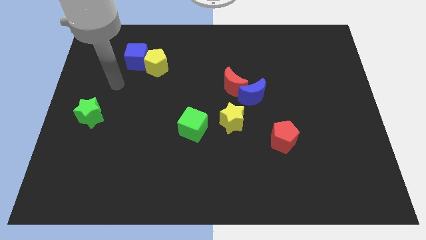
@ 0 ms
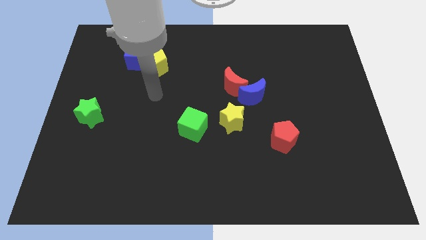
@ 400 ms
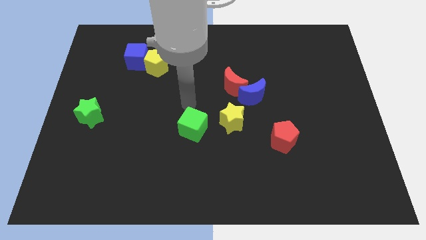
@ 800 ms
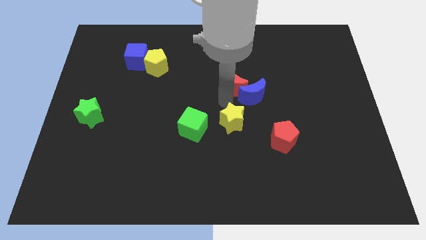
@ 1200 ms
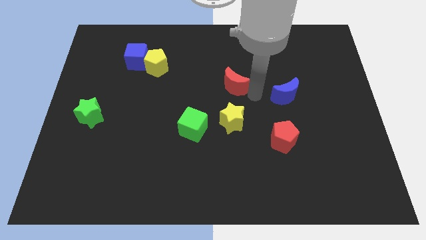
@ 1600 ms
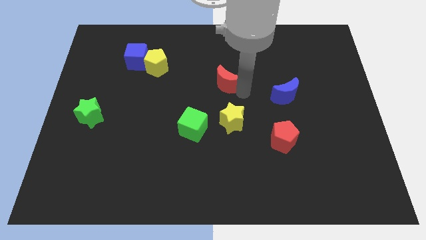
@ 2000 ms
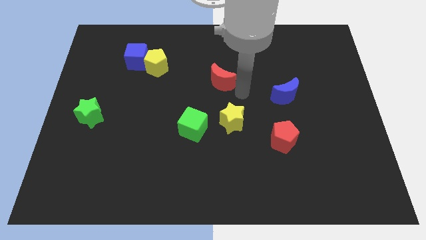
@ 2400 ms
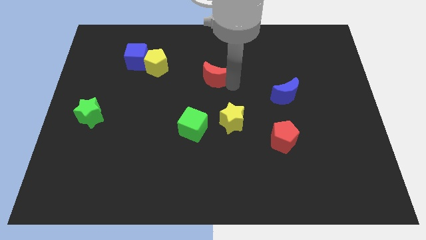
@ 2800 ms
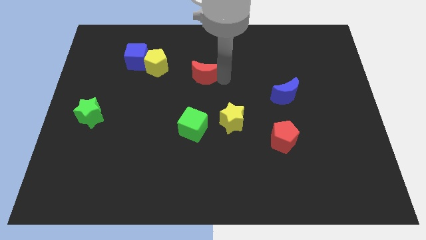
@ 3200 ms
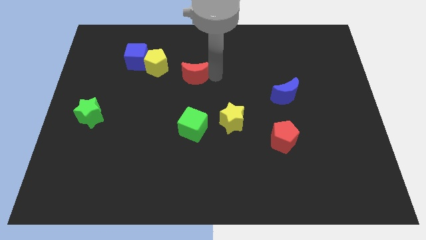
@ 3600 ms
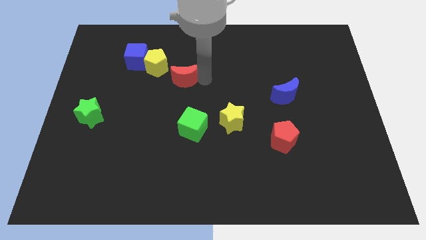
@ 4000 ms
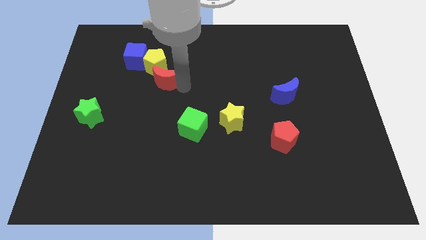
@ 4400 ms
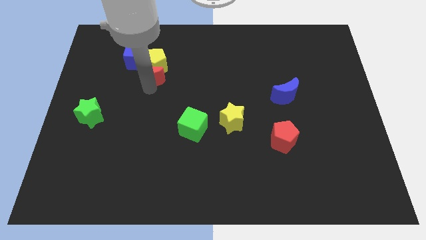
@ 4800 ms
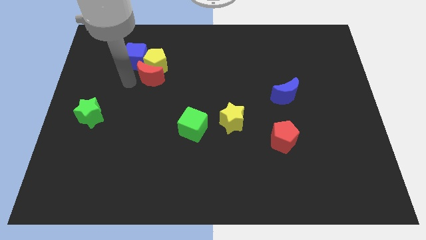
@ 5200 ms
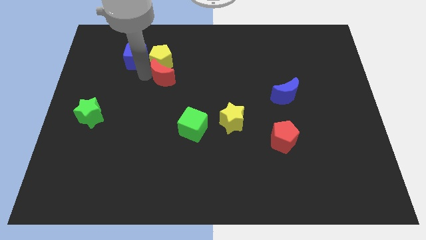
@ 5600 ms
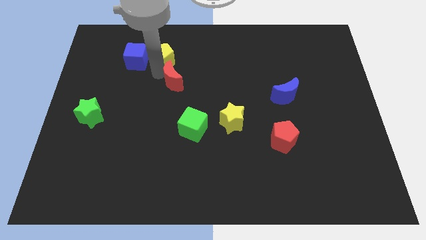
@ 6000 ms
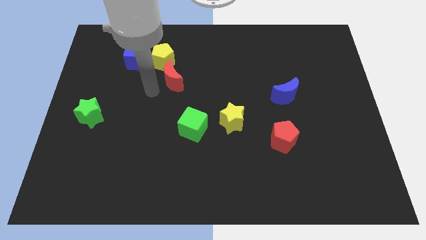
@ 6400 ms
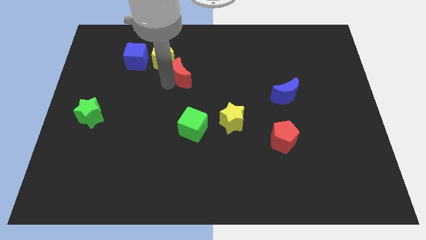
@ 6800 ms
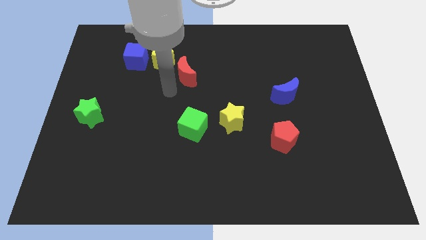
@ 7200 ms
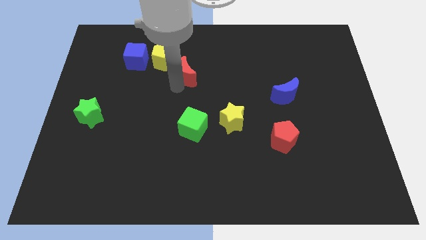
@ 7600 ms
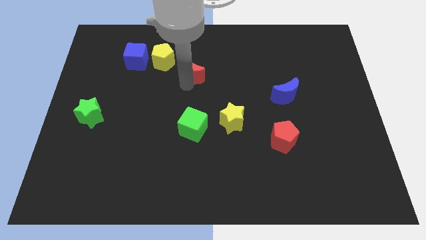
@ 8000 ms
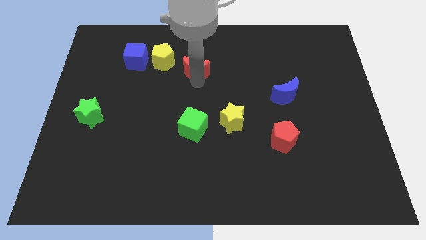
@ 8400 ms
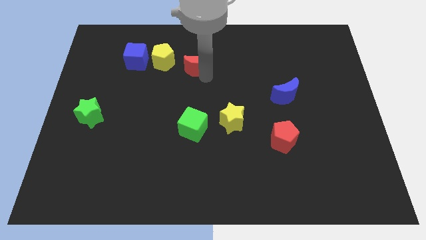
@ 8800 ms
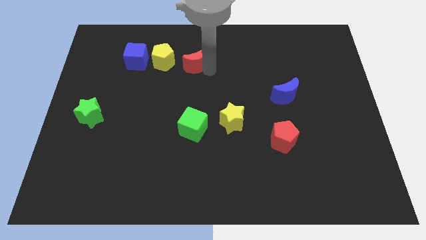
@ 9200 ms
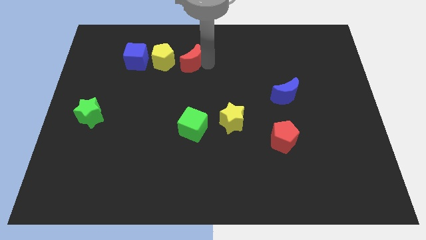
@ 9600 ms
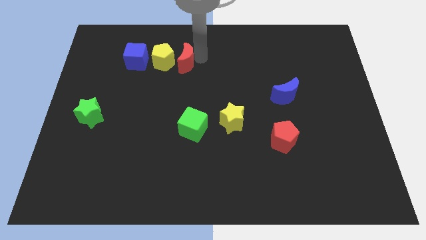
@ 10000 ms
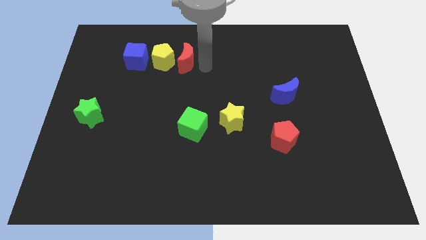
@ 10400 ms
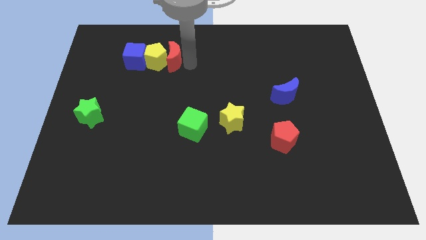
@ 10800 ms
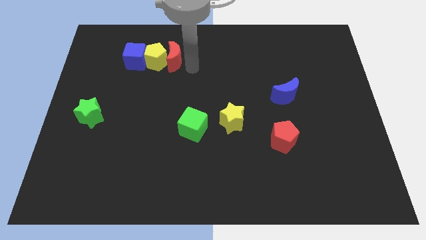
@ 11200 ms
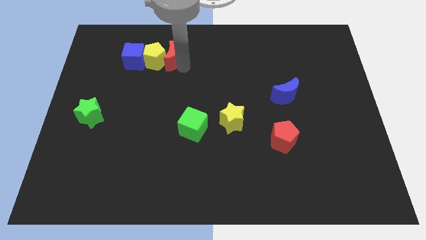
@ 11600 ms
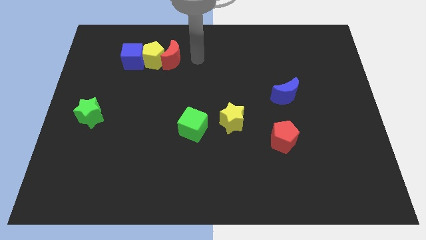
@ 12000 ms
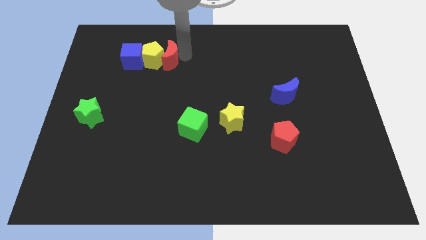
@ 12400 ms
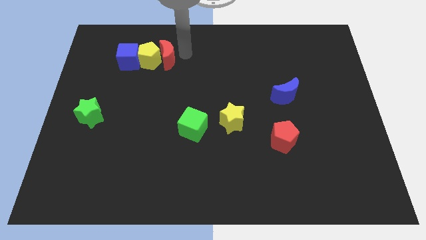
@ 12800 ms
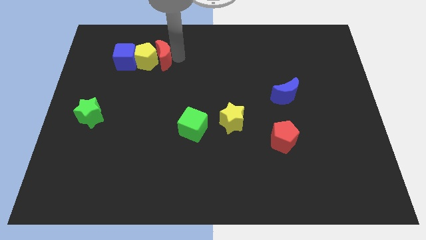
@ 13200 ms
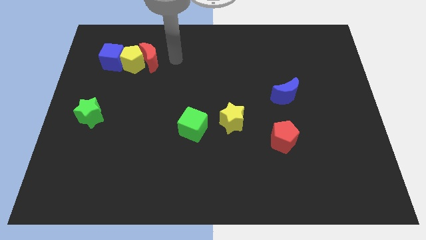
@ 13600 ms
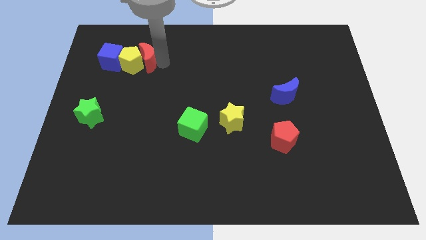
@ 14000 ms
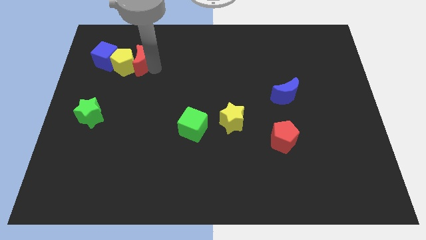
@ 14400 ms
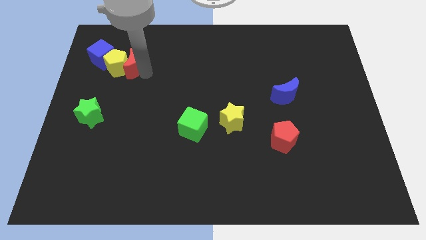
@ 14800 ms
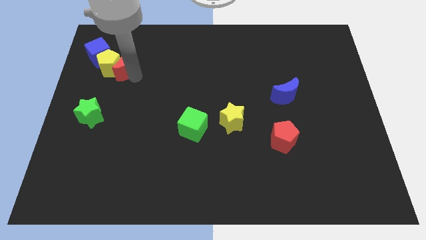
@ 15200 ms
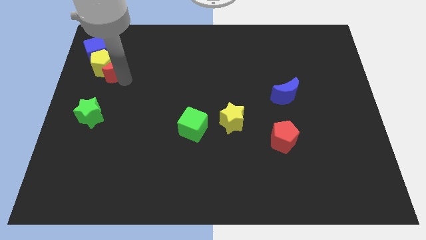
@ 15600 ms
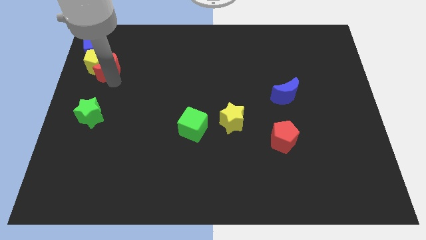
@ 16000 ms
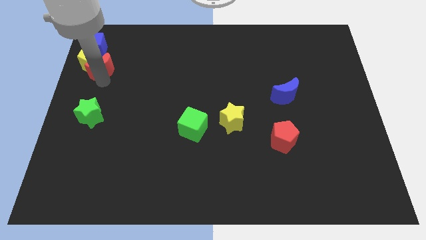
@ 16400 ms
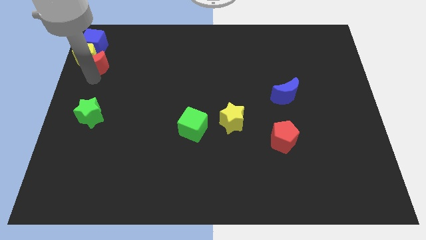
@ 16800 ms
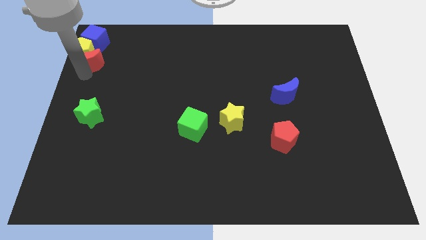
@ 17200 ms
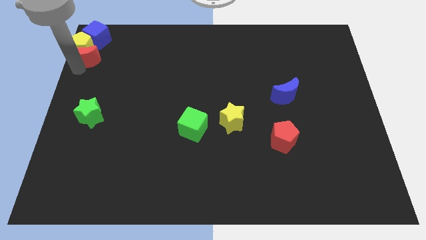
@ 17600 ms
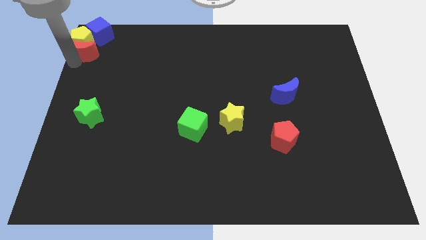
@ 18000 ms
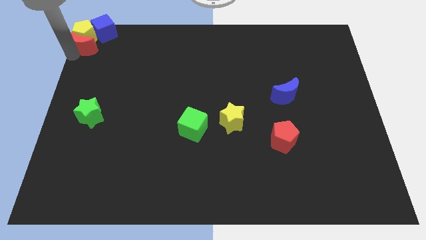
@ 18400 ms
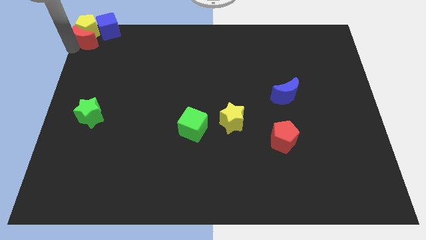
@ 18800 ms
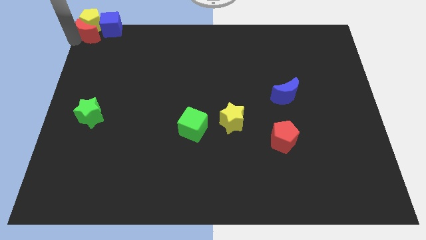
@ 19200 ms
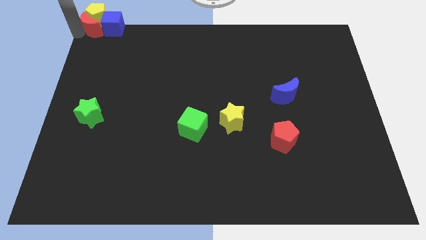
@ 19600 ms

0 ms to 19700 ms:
move the red moon to the blue cube

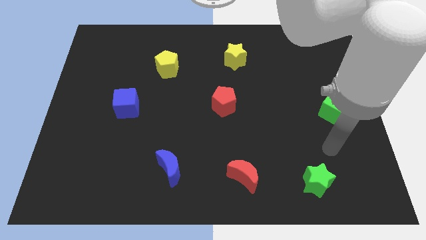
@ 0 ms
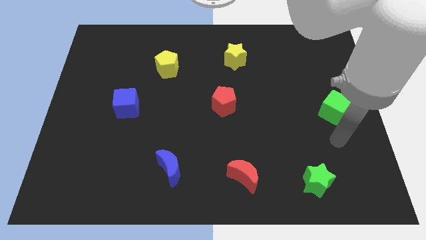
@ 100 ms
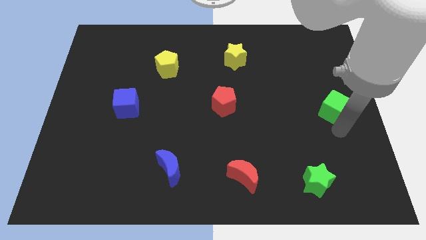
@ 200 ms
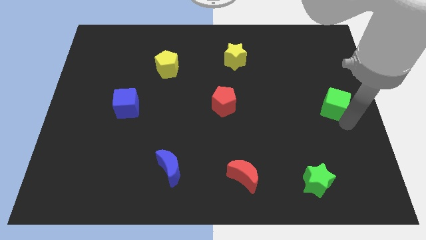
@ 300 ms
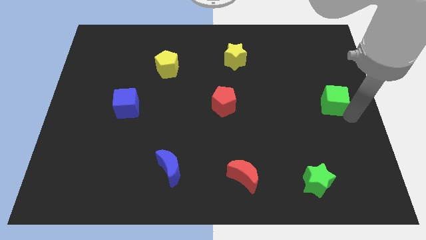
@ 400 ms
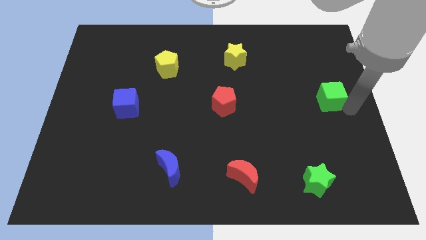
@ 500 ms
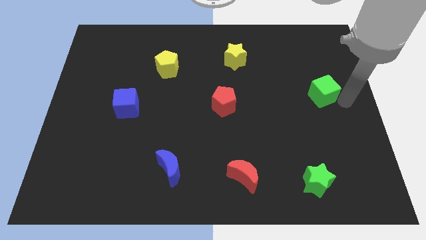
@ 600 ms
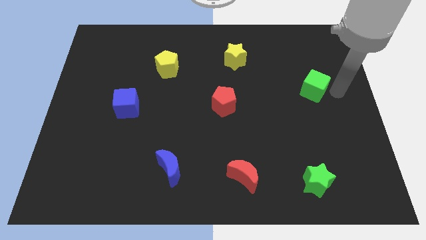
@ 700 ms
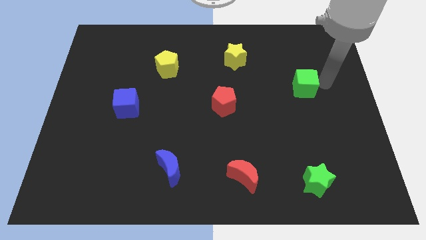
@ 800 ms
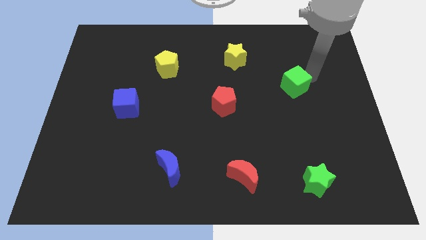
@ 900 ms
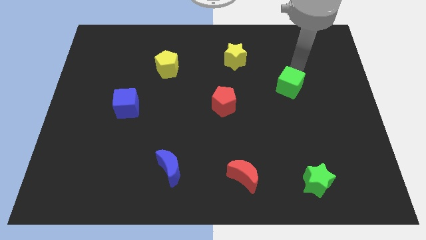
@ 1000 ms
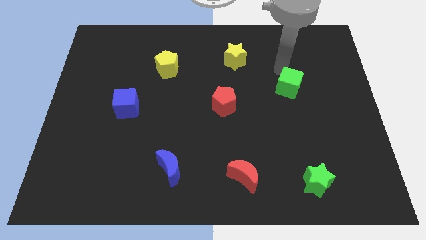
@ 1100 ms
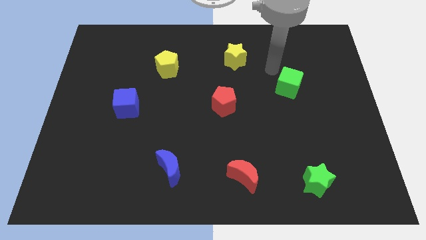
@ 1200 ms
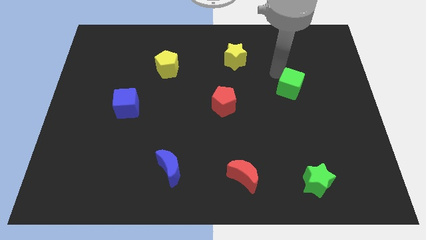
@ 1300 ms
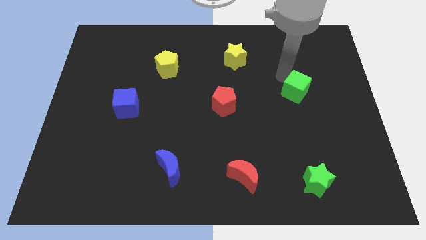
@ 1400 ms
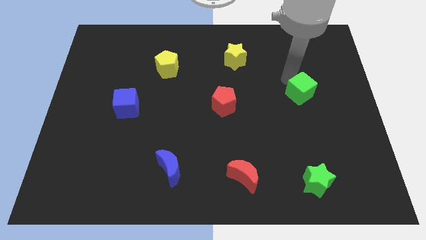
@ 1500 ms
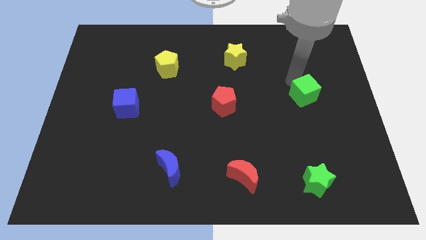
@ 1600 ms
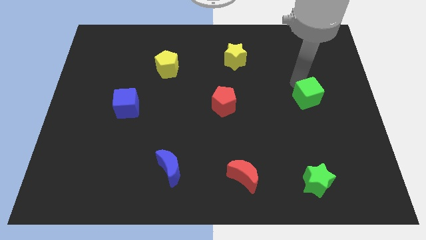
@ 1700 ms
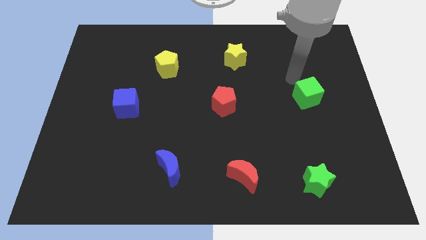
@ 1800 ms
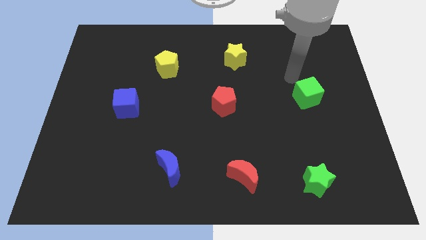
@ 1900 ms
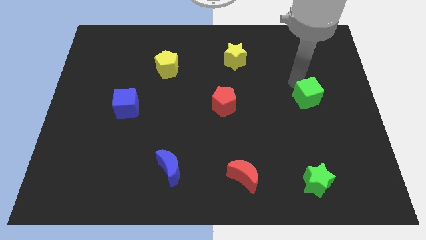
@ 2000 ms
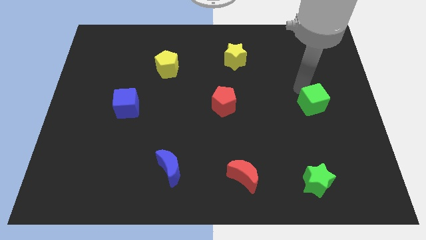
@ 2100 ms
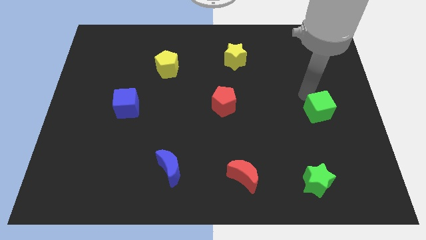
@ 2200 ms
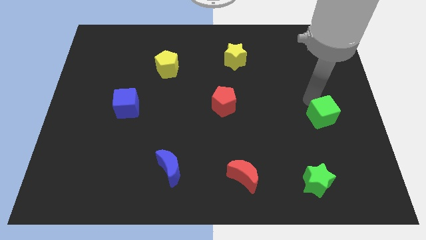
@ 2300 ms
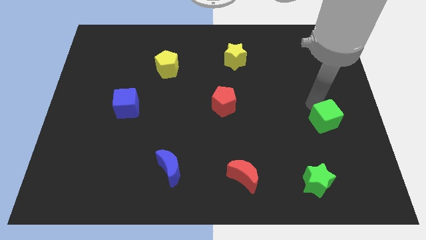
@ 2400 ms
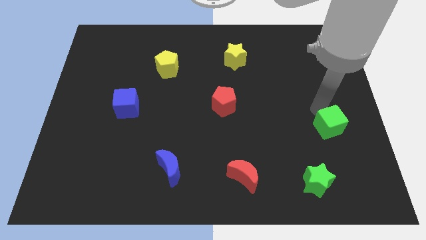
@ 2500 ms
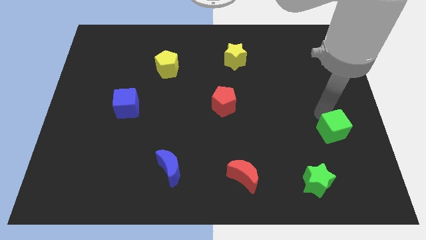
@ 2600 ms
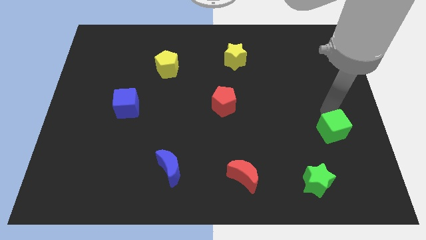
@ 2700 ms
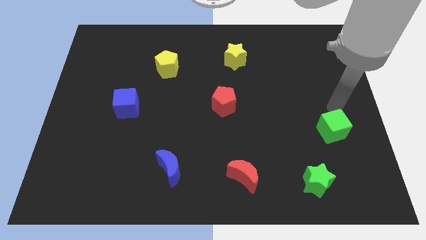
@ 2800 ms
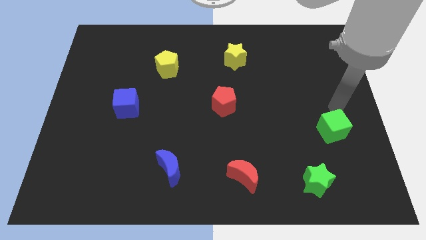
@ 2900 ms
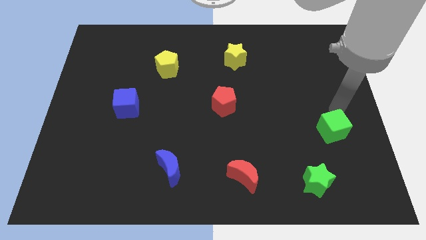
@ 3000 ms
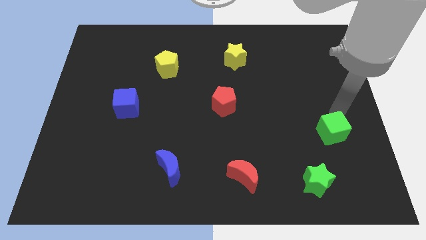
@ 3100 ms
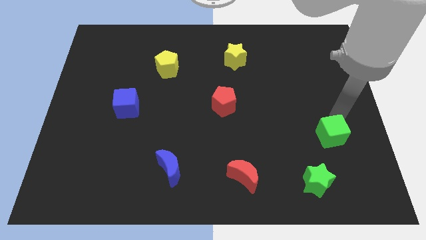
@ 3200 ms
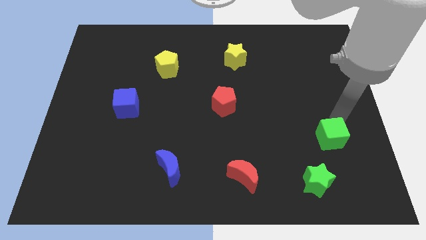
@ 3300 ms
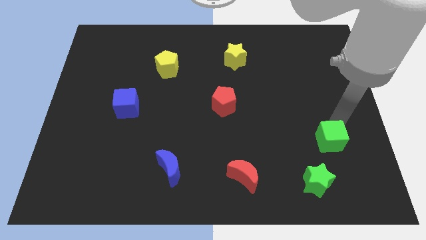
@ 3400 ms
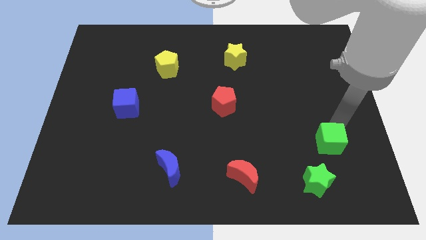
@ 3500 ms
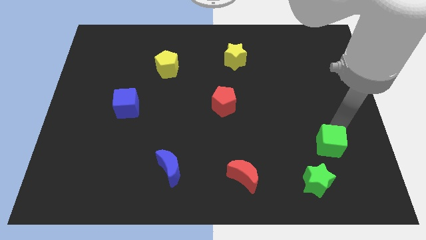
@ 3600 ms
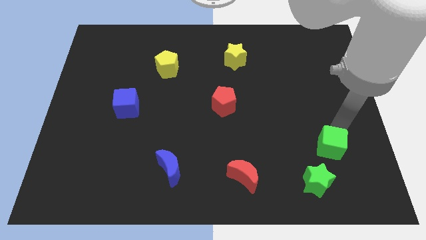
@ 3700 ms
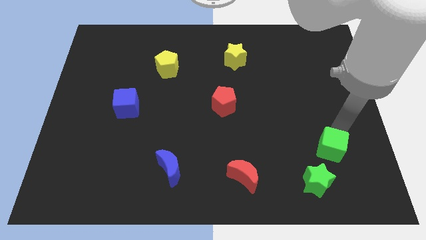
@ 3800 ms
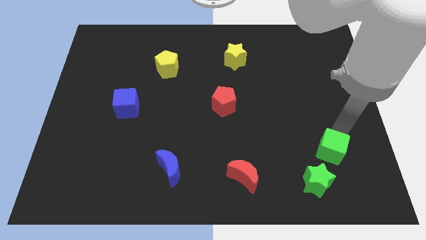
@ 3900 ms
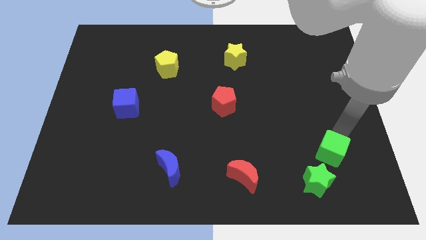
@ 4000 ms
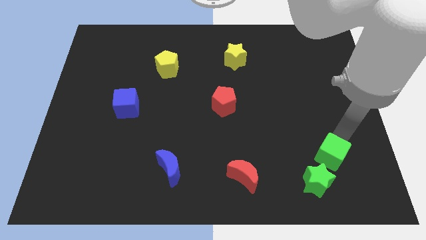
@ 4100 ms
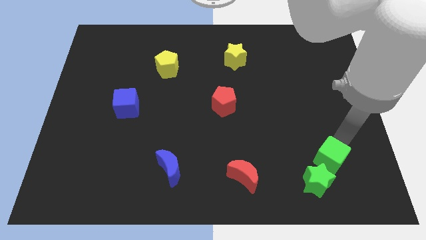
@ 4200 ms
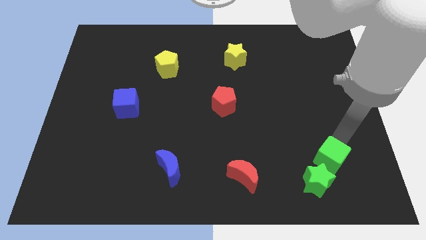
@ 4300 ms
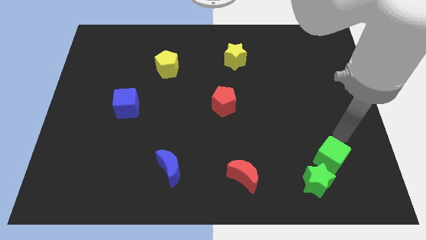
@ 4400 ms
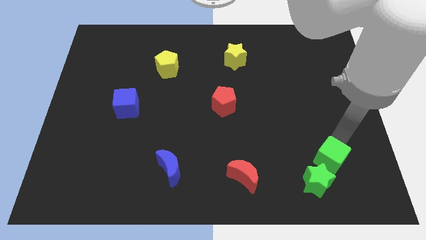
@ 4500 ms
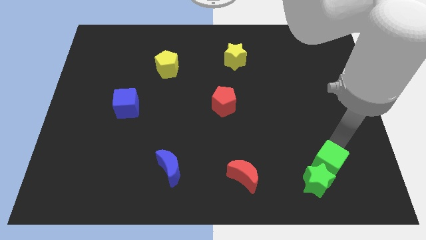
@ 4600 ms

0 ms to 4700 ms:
push the green cube towards the green star
